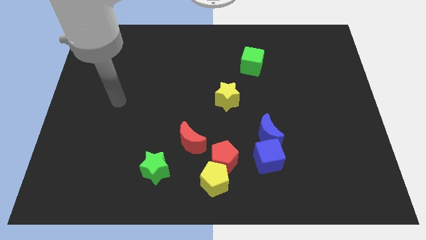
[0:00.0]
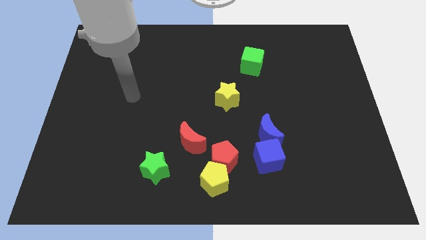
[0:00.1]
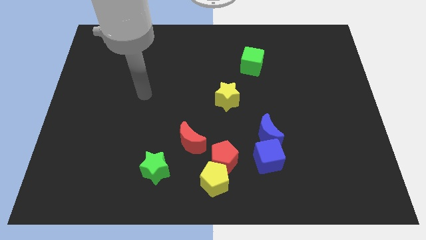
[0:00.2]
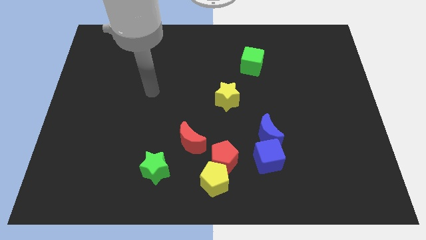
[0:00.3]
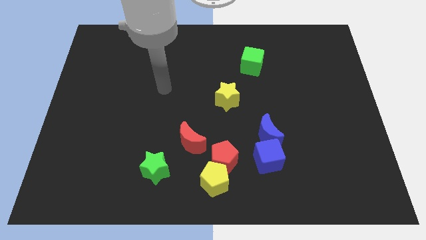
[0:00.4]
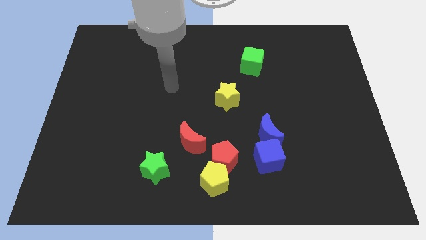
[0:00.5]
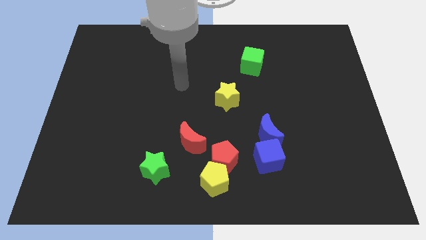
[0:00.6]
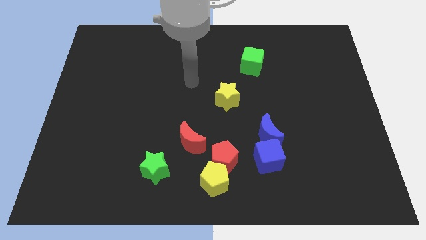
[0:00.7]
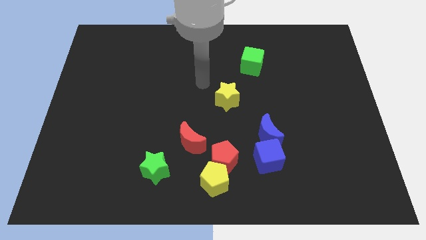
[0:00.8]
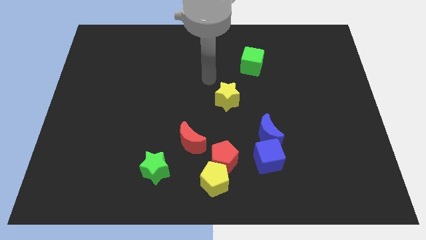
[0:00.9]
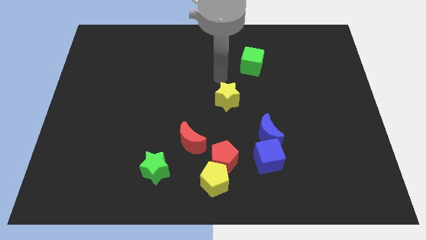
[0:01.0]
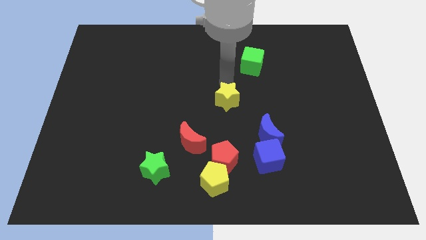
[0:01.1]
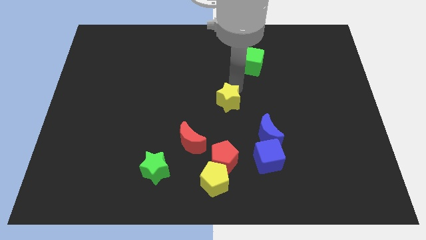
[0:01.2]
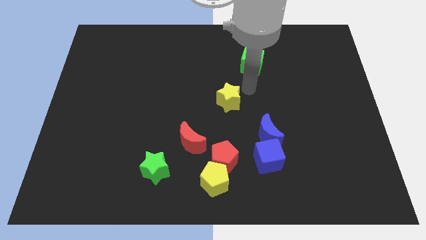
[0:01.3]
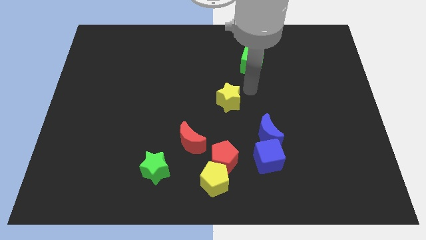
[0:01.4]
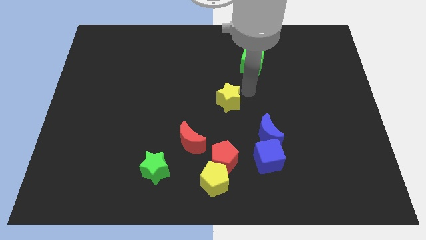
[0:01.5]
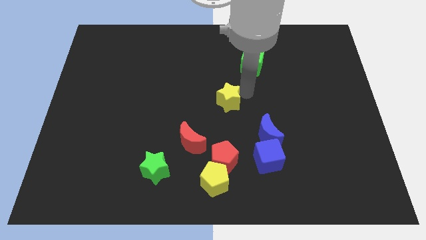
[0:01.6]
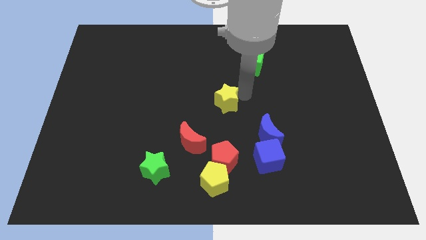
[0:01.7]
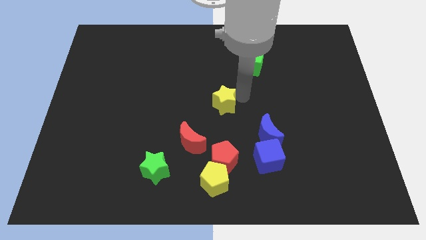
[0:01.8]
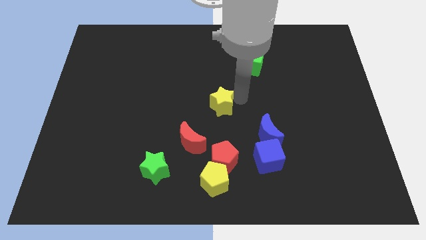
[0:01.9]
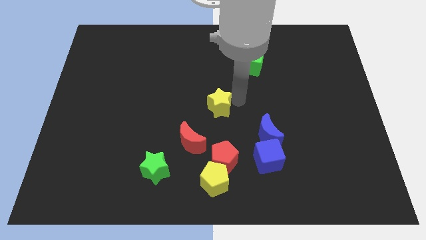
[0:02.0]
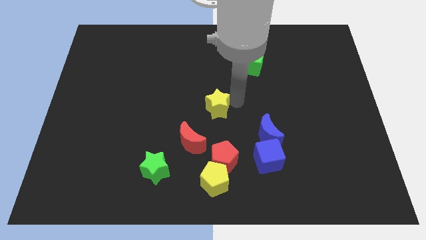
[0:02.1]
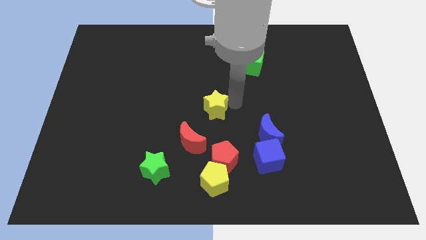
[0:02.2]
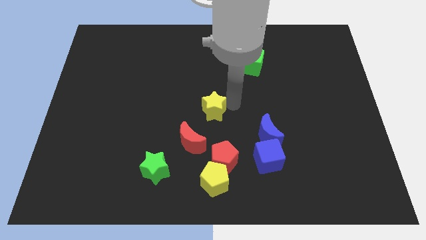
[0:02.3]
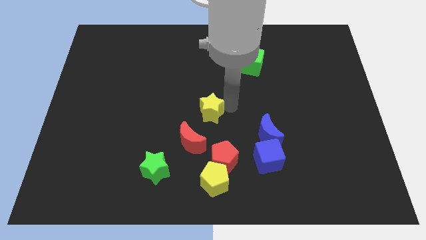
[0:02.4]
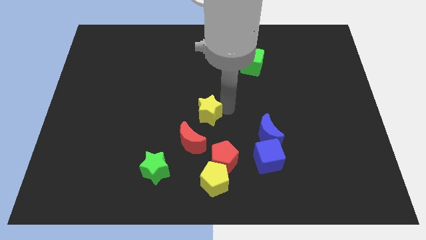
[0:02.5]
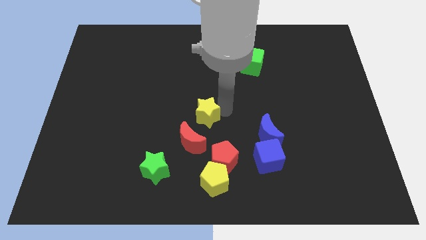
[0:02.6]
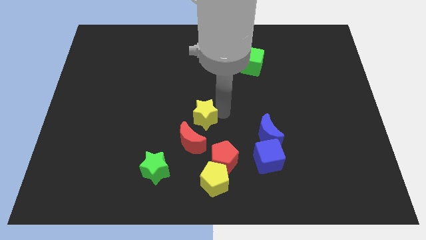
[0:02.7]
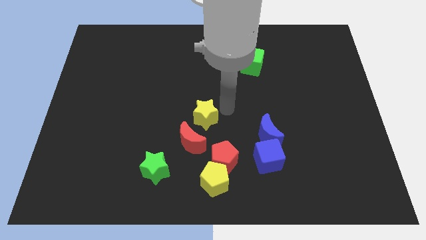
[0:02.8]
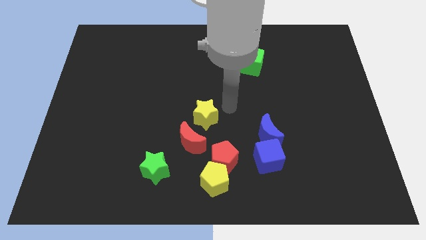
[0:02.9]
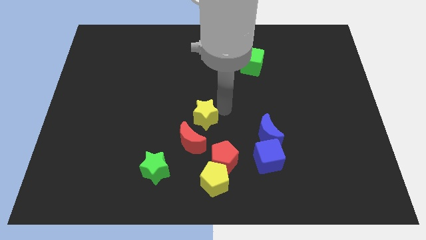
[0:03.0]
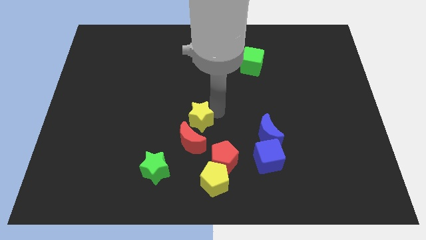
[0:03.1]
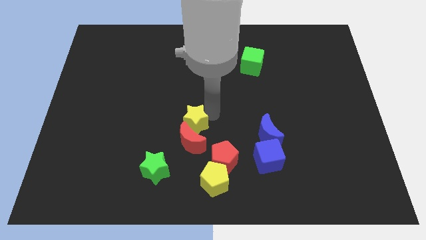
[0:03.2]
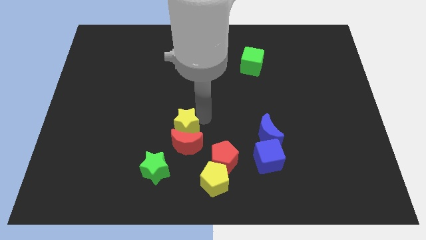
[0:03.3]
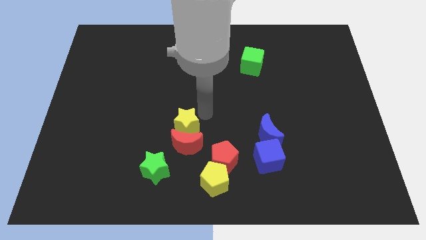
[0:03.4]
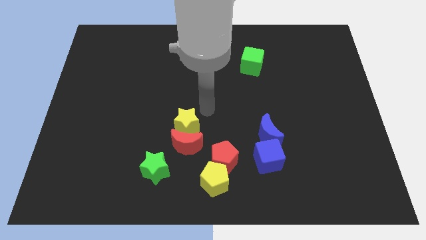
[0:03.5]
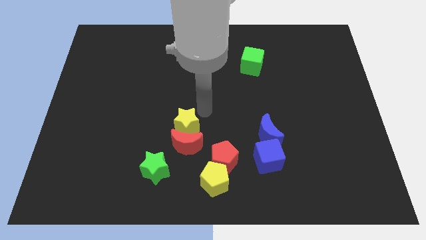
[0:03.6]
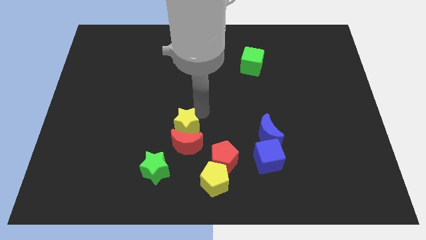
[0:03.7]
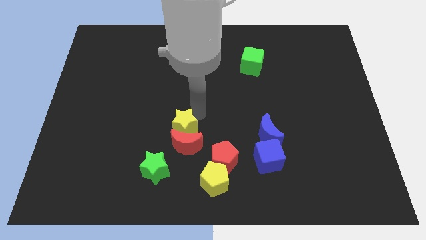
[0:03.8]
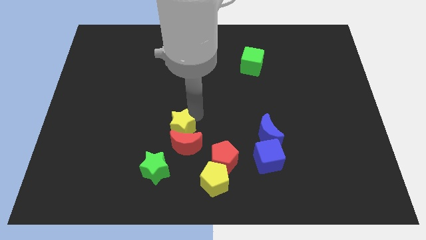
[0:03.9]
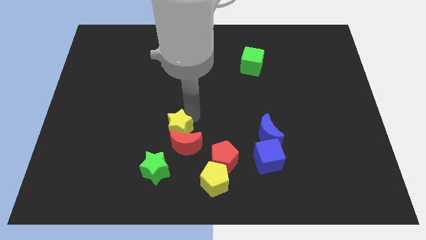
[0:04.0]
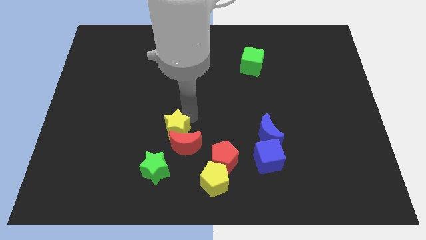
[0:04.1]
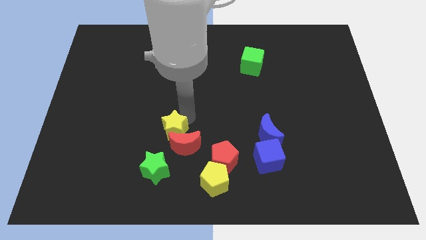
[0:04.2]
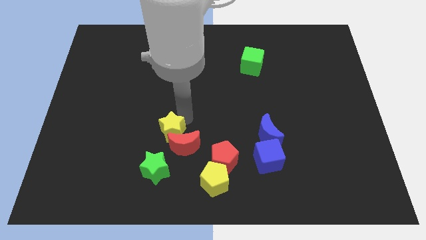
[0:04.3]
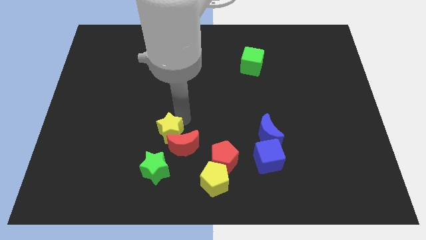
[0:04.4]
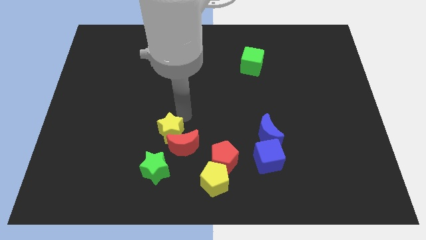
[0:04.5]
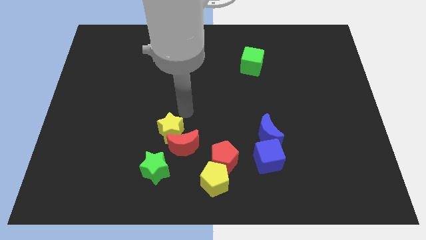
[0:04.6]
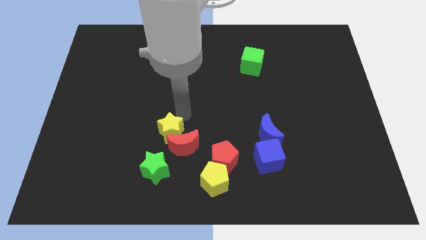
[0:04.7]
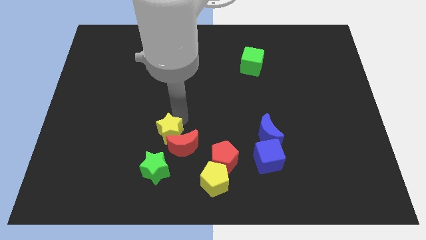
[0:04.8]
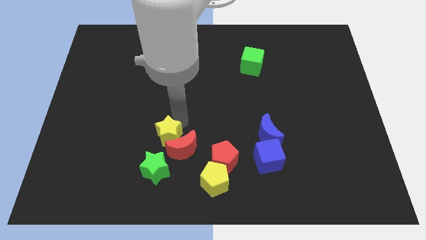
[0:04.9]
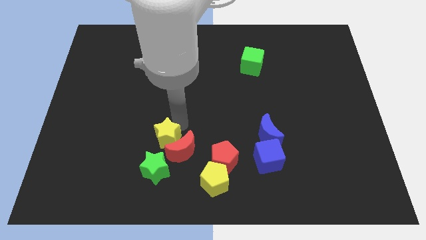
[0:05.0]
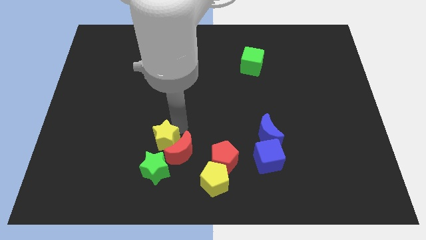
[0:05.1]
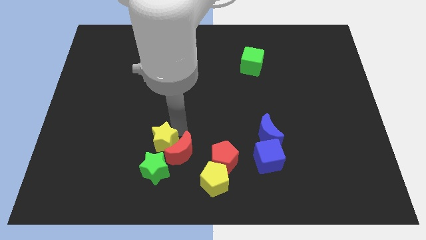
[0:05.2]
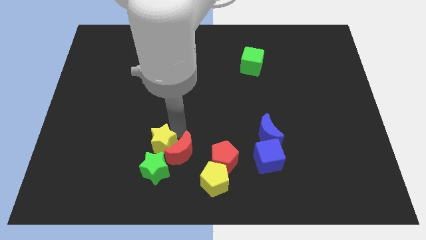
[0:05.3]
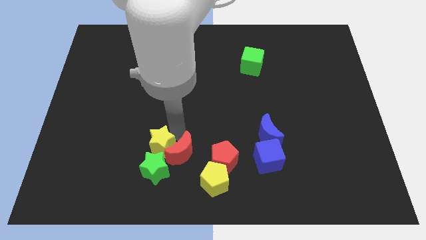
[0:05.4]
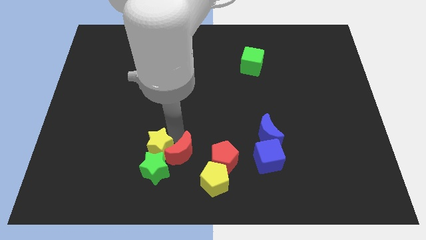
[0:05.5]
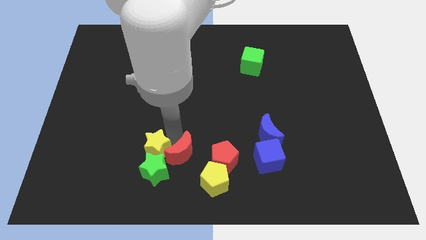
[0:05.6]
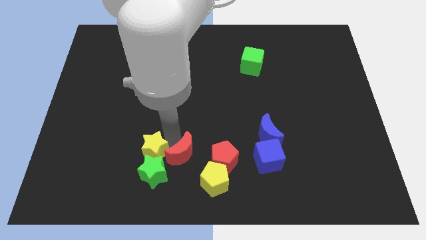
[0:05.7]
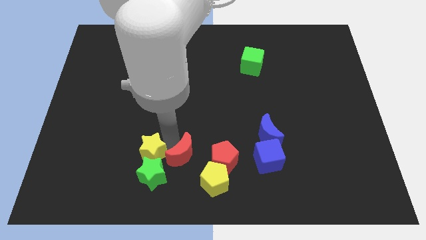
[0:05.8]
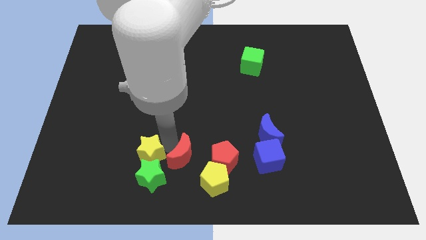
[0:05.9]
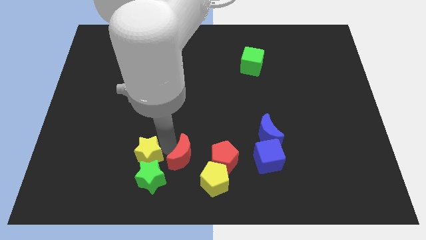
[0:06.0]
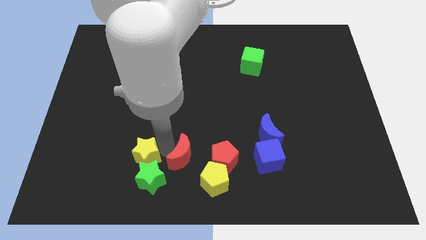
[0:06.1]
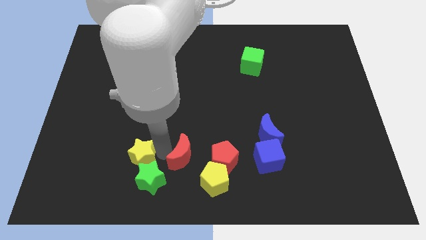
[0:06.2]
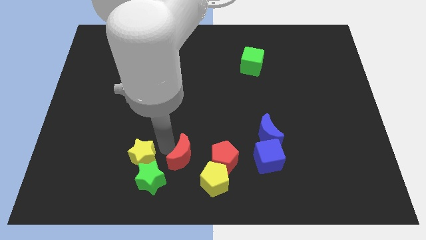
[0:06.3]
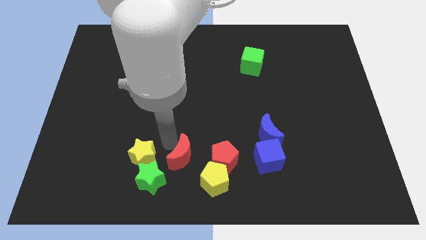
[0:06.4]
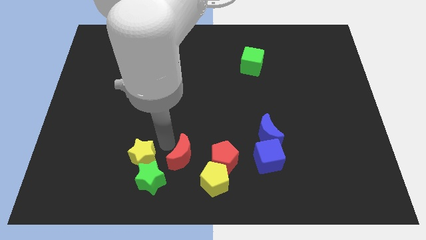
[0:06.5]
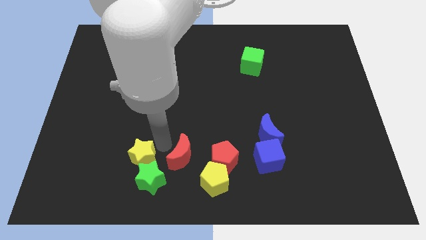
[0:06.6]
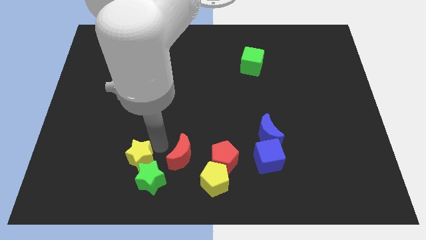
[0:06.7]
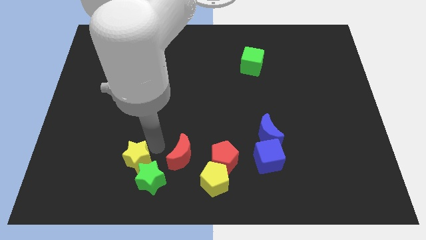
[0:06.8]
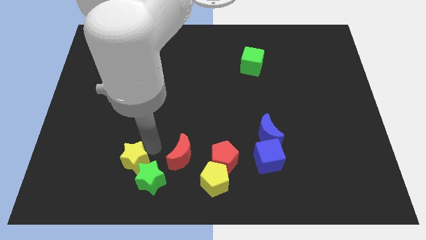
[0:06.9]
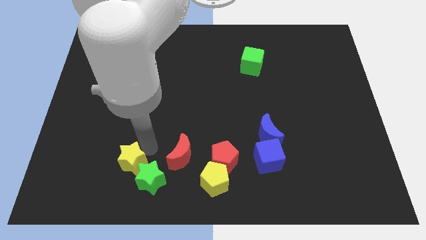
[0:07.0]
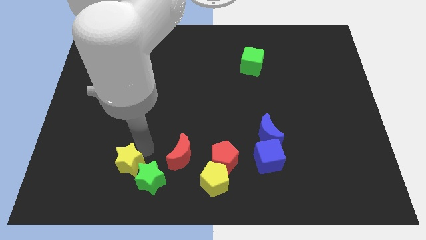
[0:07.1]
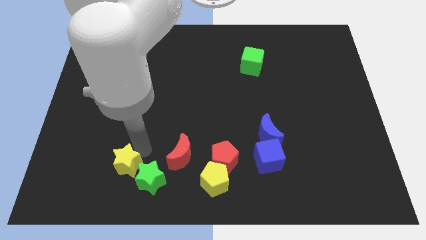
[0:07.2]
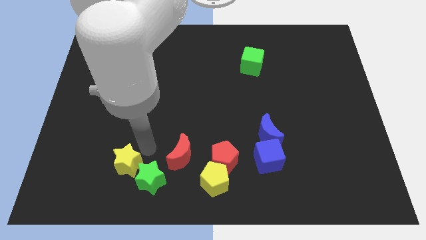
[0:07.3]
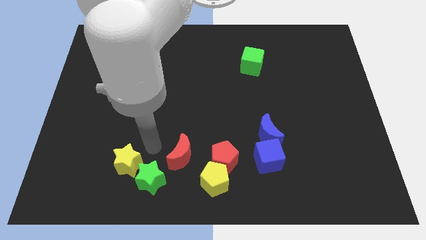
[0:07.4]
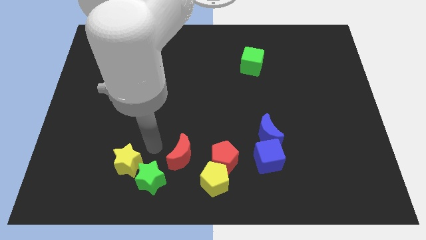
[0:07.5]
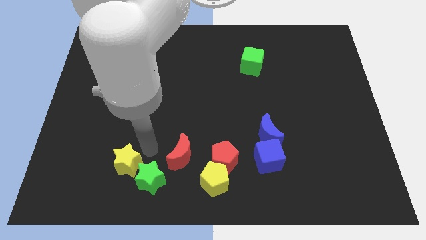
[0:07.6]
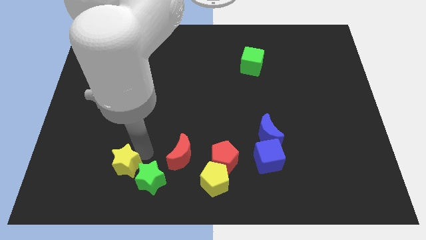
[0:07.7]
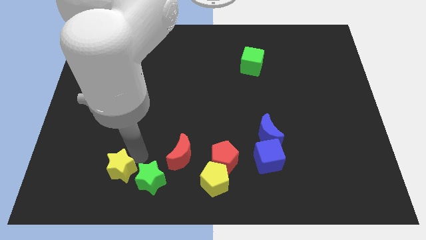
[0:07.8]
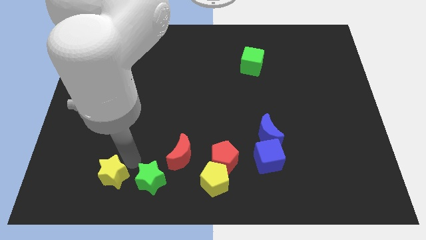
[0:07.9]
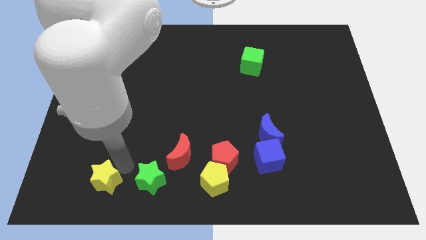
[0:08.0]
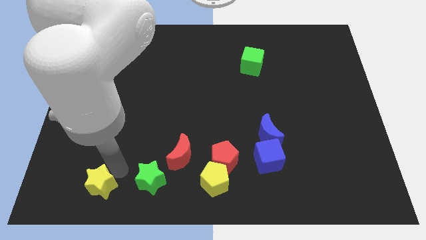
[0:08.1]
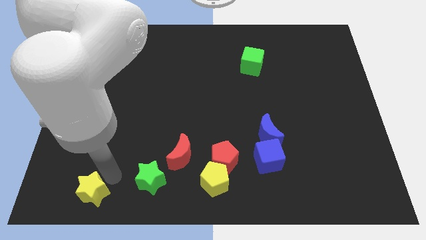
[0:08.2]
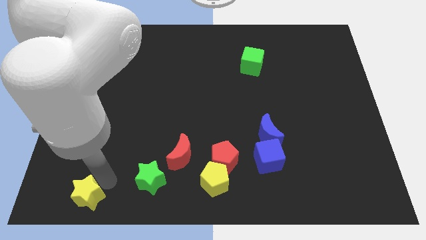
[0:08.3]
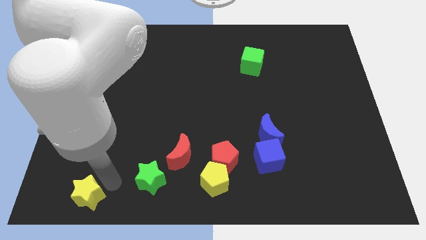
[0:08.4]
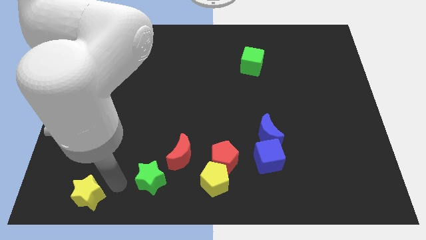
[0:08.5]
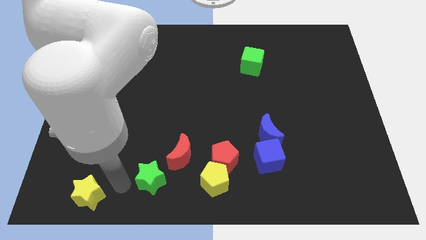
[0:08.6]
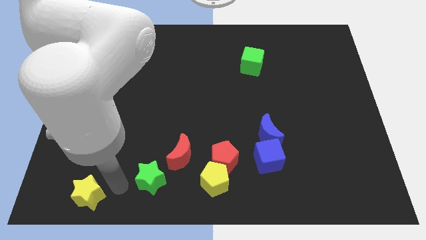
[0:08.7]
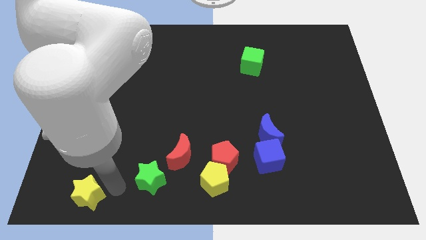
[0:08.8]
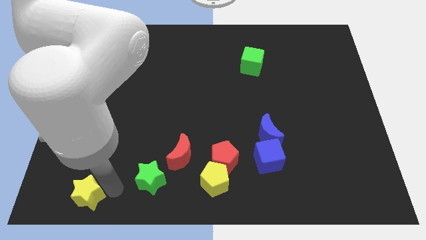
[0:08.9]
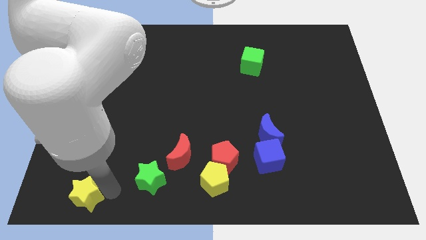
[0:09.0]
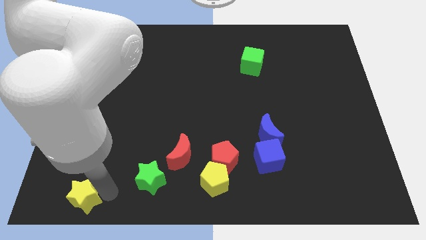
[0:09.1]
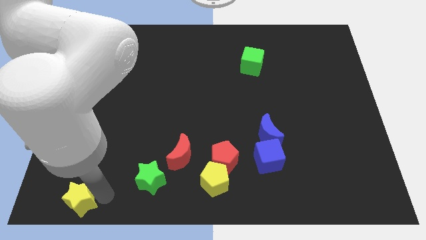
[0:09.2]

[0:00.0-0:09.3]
push the yellow star to the bottom left
